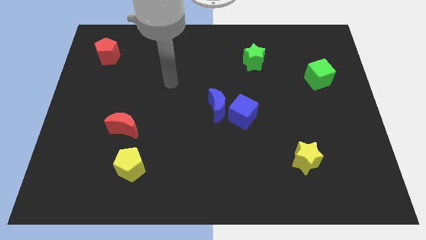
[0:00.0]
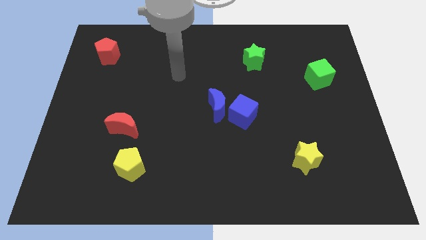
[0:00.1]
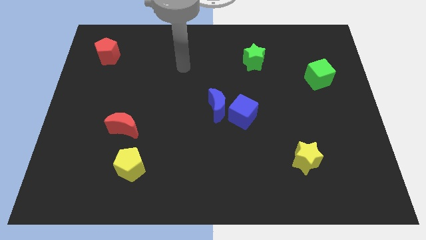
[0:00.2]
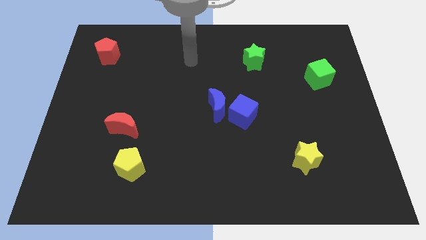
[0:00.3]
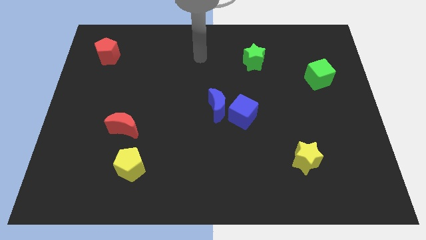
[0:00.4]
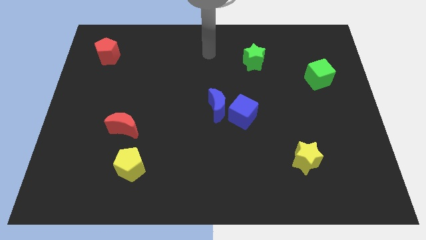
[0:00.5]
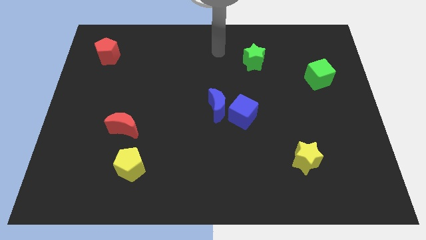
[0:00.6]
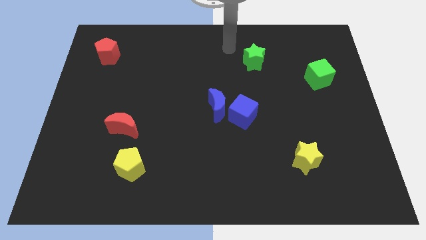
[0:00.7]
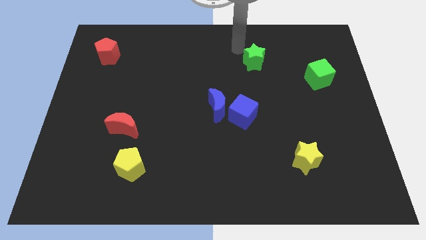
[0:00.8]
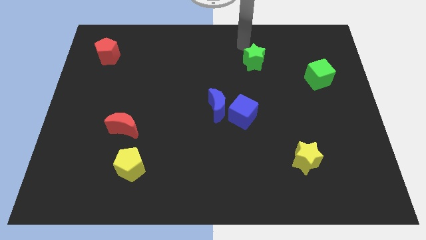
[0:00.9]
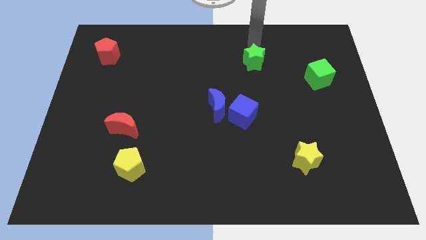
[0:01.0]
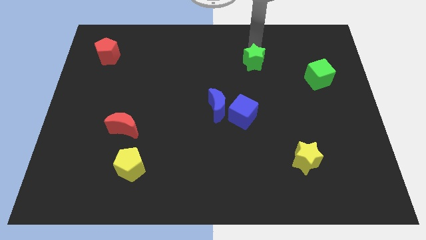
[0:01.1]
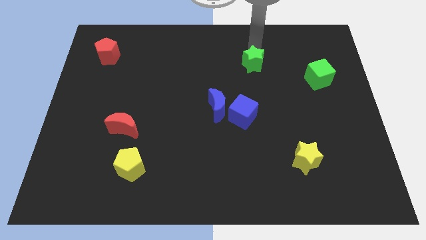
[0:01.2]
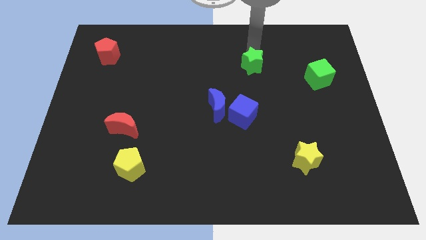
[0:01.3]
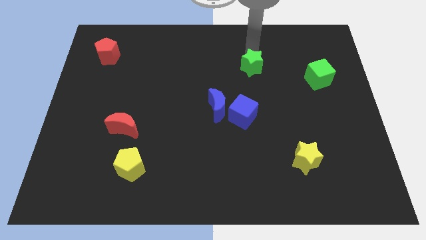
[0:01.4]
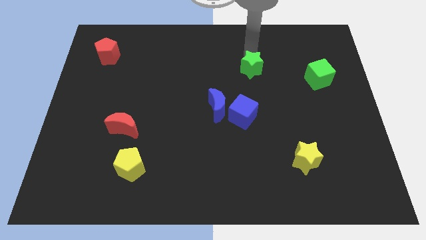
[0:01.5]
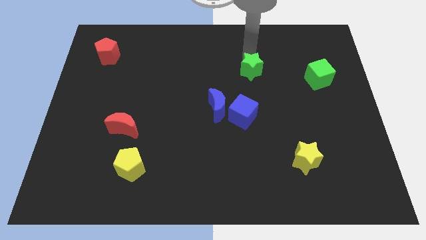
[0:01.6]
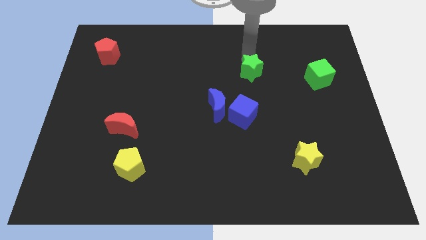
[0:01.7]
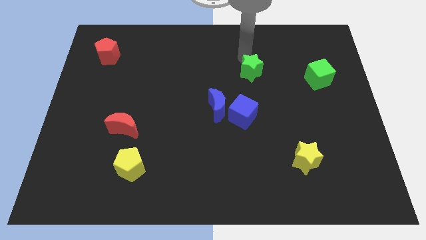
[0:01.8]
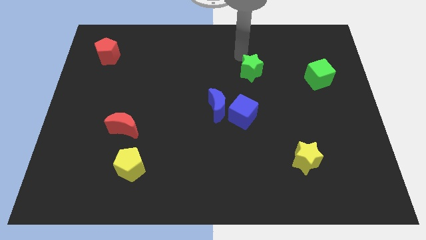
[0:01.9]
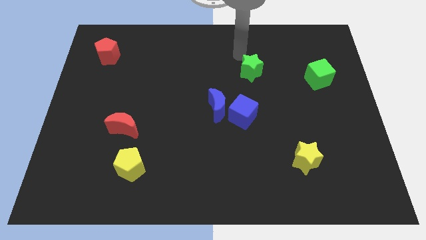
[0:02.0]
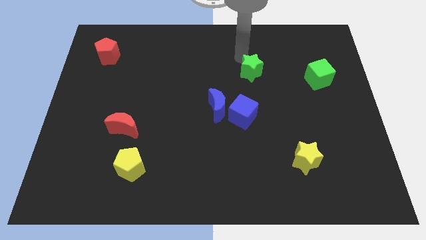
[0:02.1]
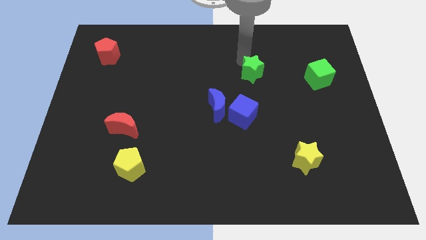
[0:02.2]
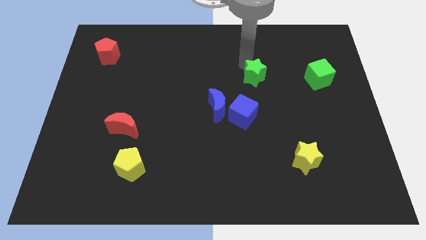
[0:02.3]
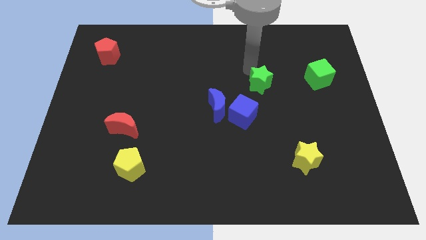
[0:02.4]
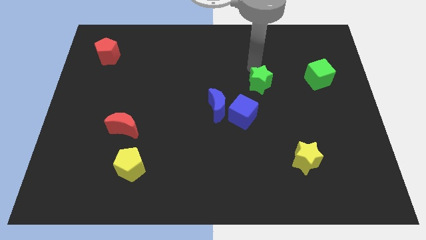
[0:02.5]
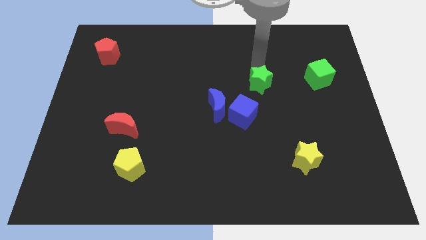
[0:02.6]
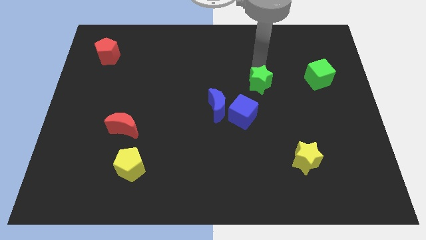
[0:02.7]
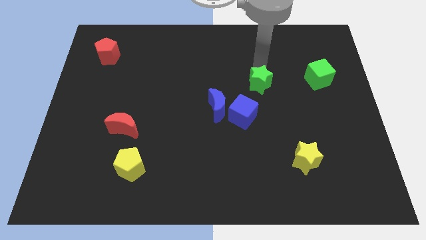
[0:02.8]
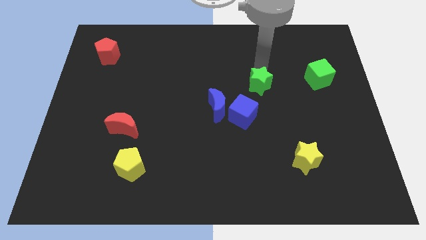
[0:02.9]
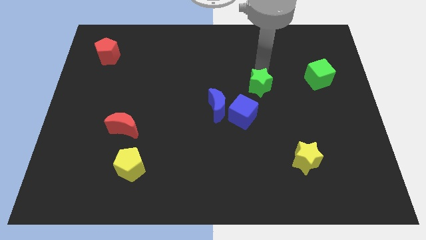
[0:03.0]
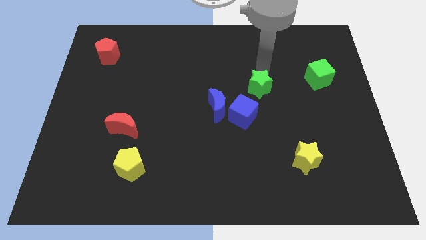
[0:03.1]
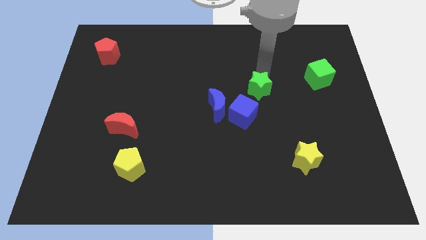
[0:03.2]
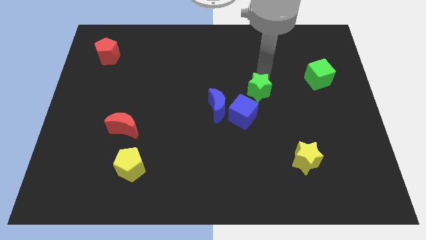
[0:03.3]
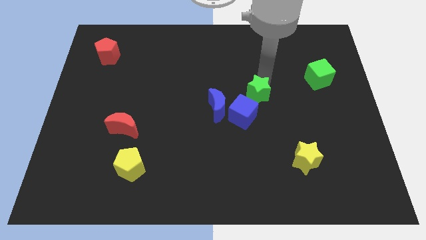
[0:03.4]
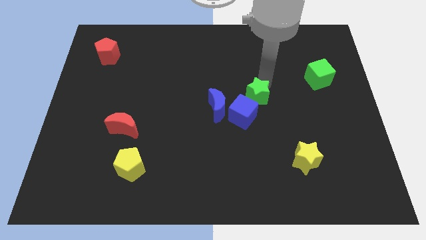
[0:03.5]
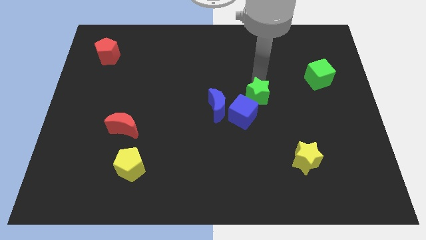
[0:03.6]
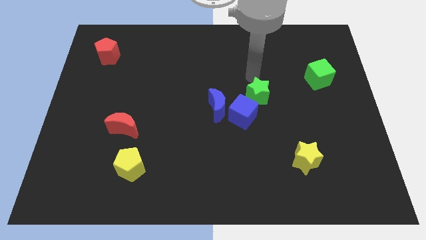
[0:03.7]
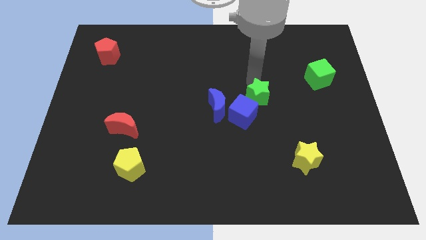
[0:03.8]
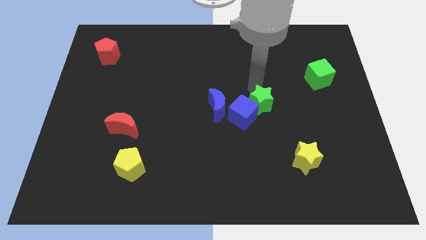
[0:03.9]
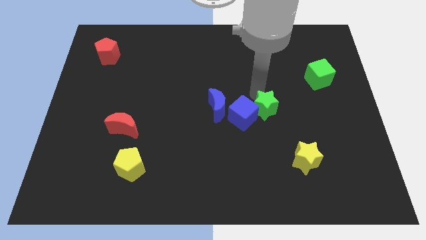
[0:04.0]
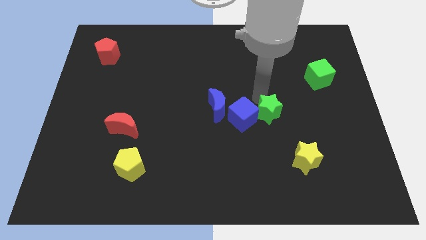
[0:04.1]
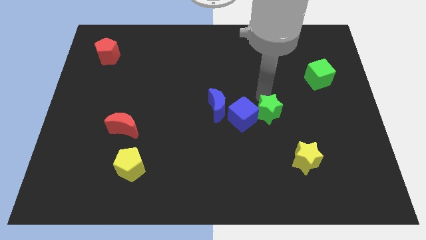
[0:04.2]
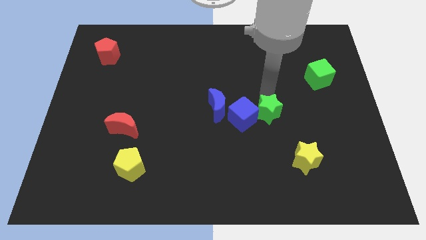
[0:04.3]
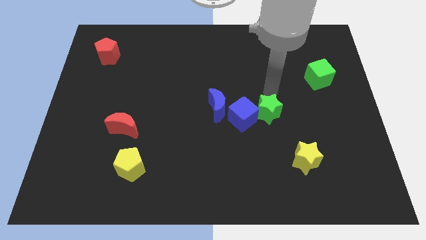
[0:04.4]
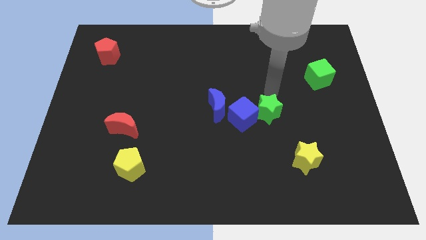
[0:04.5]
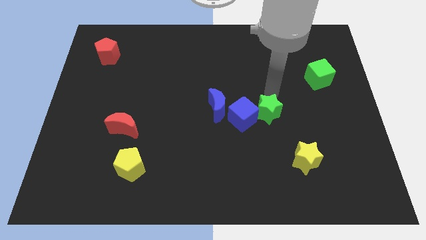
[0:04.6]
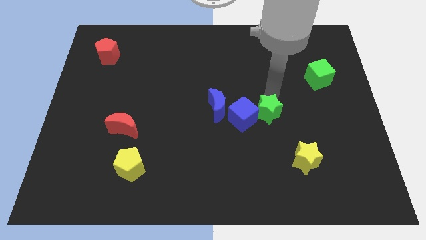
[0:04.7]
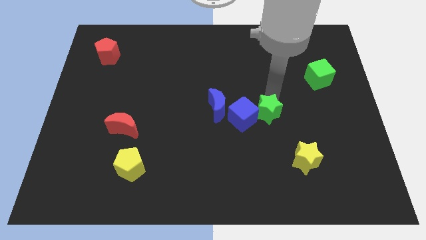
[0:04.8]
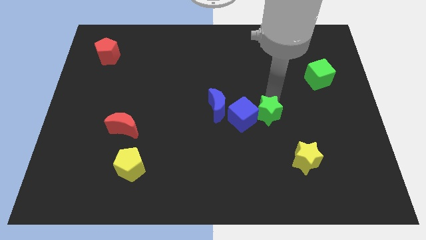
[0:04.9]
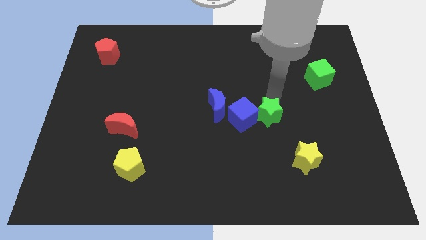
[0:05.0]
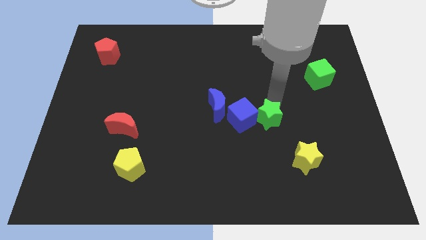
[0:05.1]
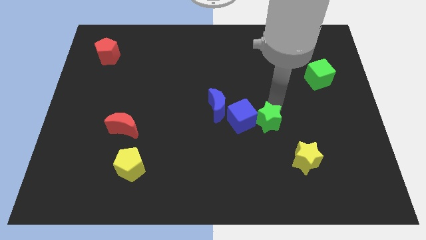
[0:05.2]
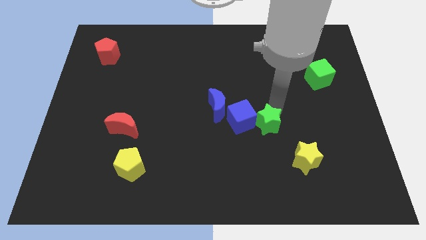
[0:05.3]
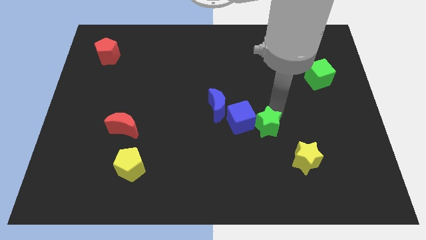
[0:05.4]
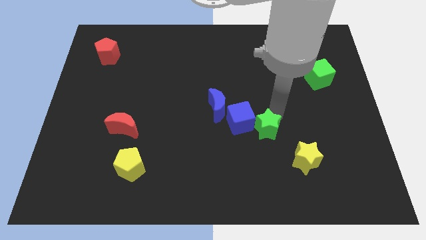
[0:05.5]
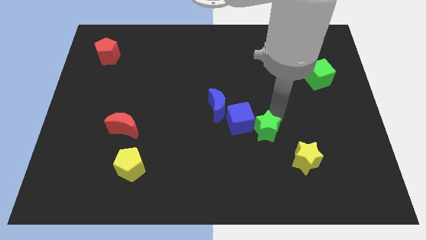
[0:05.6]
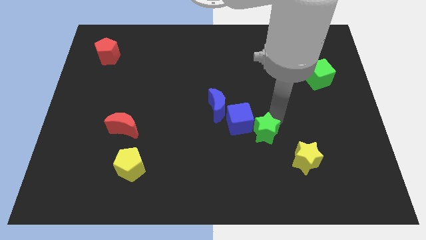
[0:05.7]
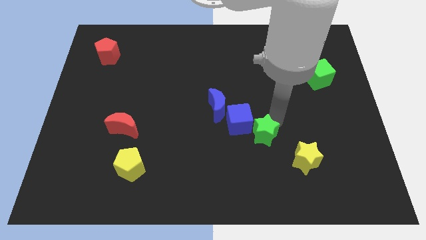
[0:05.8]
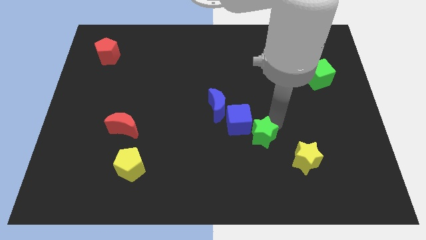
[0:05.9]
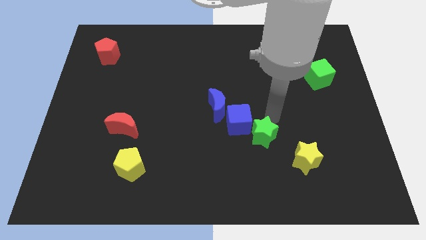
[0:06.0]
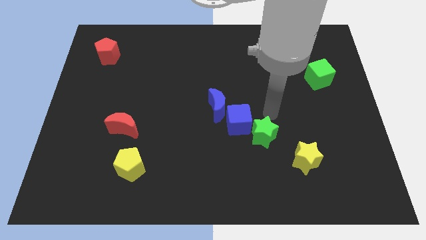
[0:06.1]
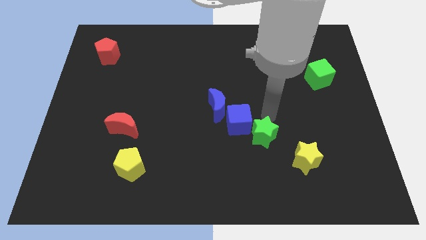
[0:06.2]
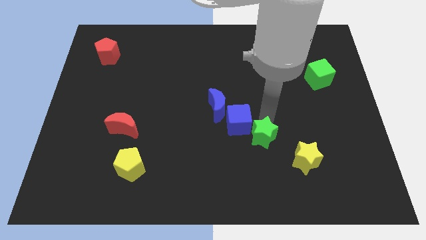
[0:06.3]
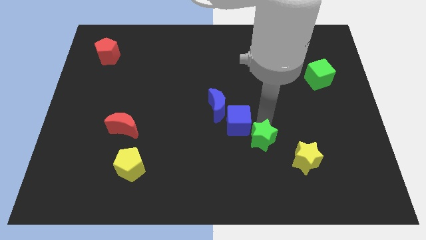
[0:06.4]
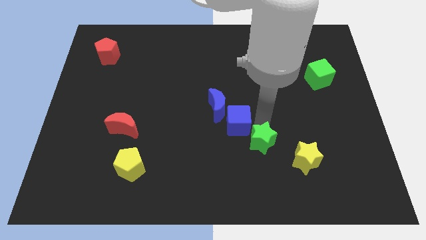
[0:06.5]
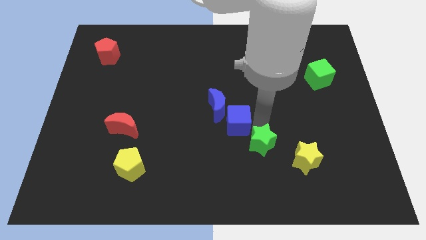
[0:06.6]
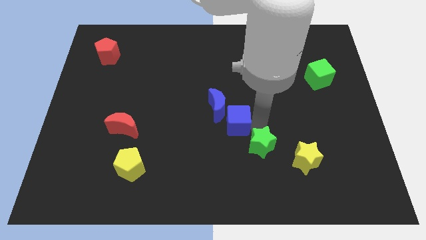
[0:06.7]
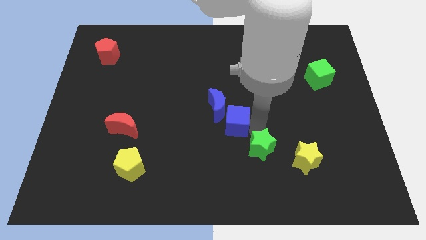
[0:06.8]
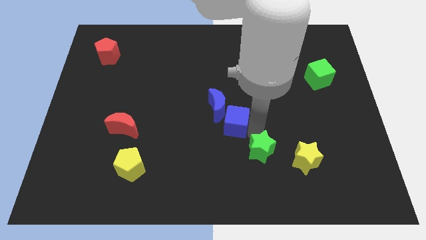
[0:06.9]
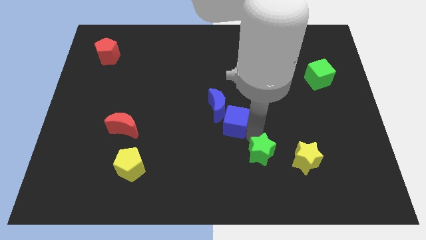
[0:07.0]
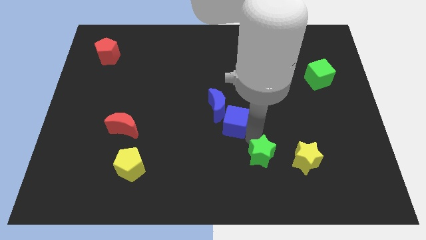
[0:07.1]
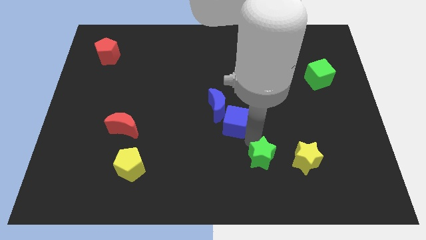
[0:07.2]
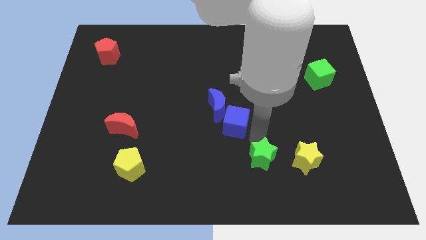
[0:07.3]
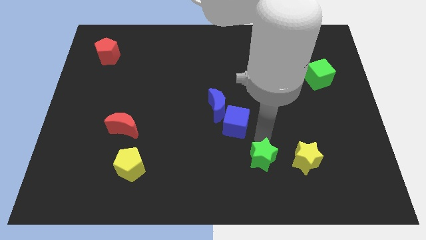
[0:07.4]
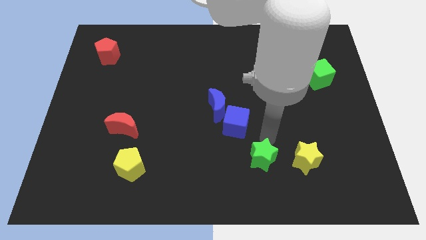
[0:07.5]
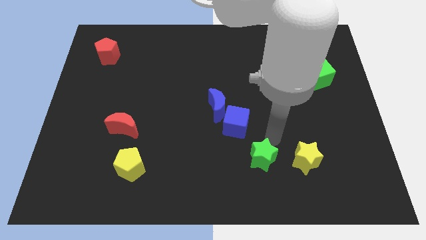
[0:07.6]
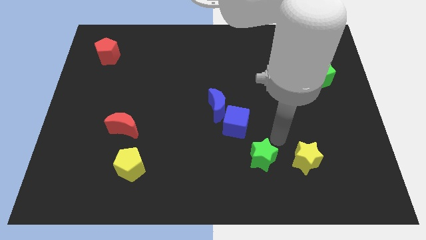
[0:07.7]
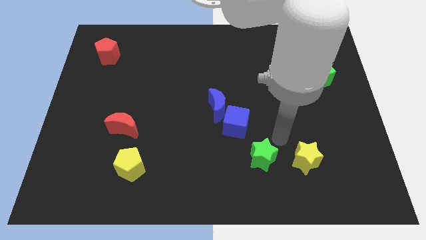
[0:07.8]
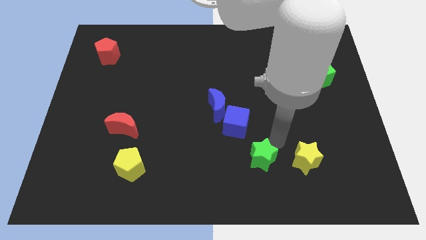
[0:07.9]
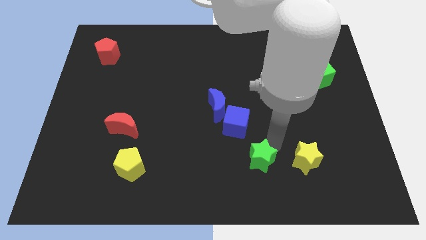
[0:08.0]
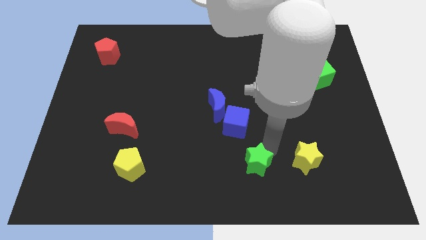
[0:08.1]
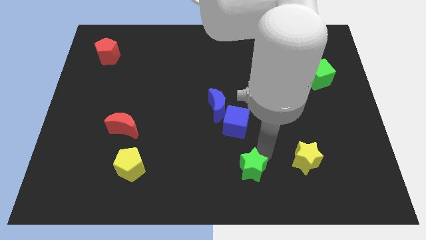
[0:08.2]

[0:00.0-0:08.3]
slide the green star to the bottom side
